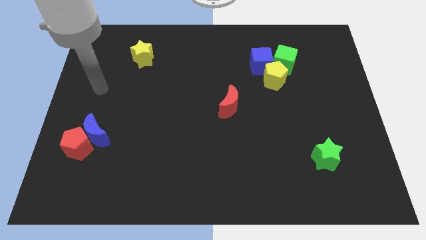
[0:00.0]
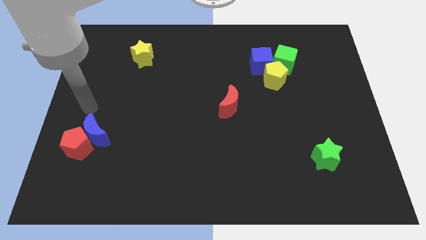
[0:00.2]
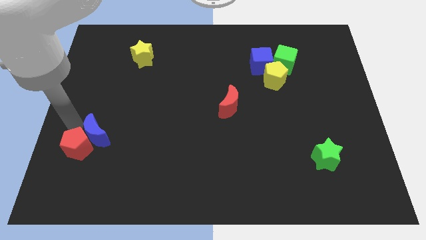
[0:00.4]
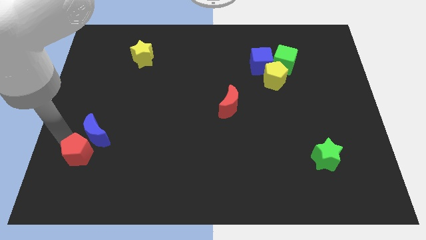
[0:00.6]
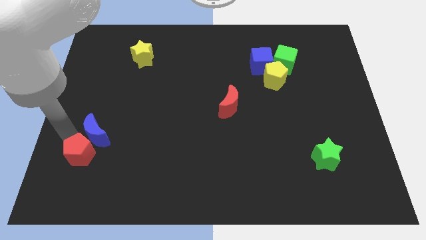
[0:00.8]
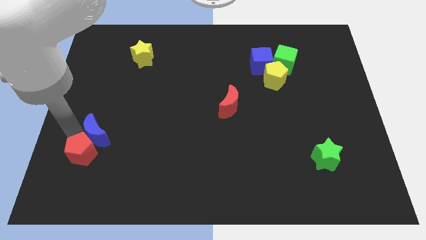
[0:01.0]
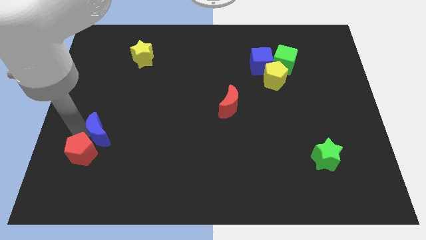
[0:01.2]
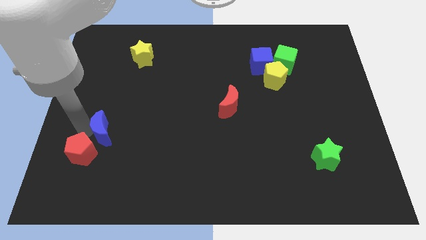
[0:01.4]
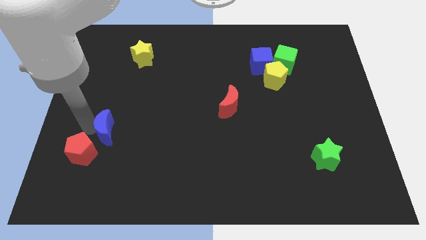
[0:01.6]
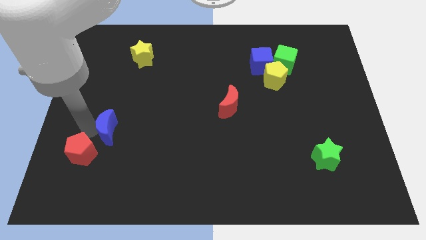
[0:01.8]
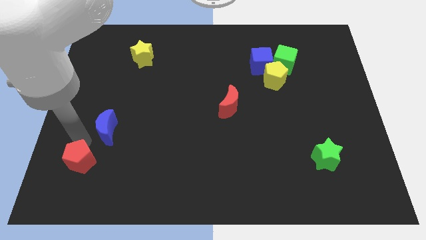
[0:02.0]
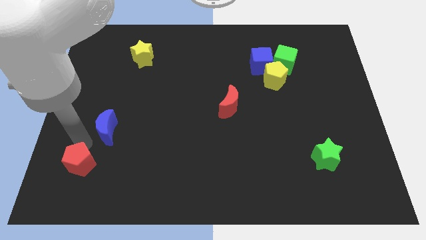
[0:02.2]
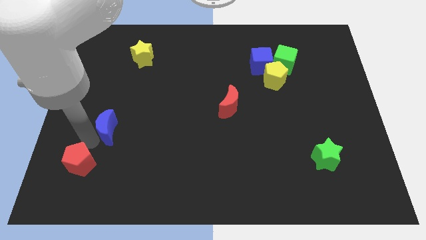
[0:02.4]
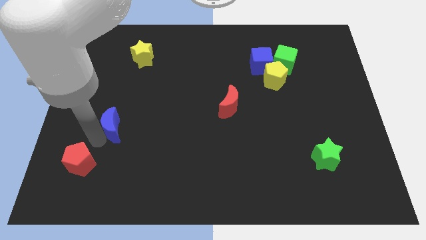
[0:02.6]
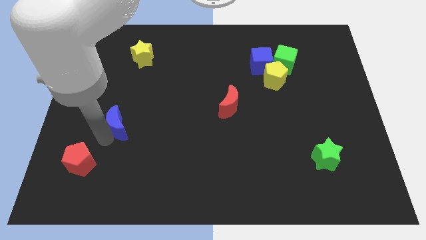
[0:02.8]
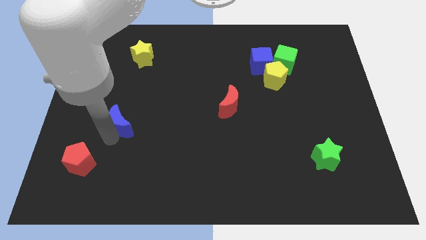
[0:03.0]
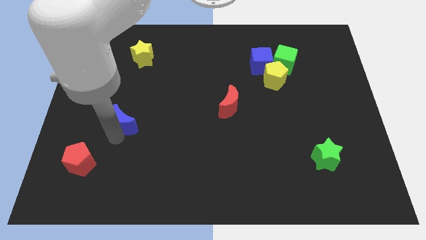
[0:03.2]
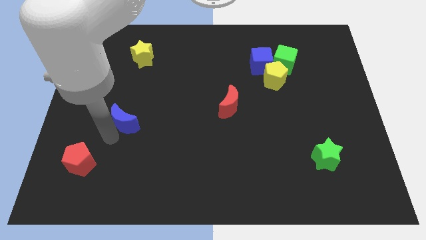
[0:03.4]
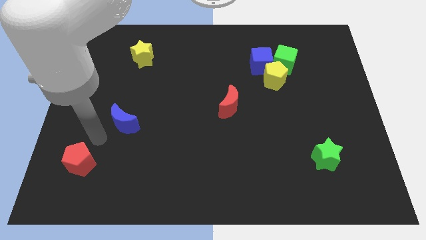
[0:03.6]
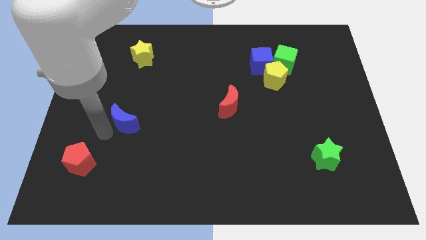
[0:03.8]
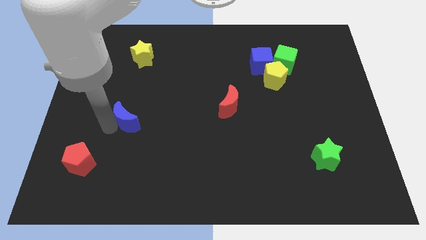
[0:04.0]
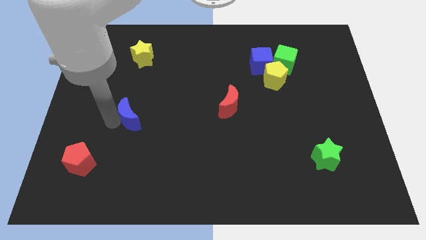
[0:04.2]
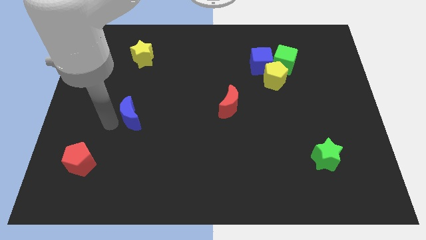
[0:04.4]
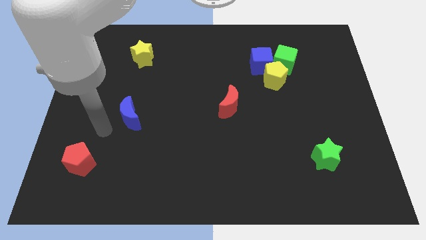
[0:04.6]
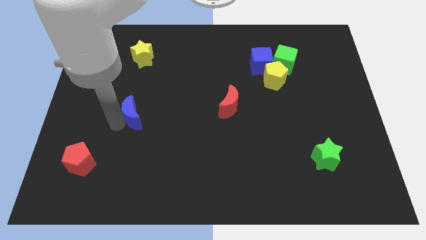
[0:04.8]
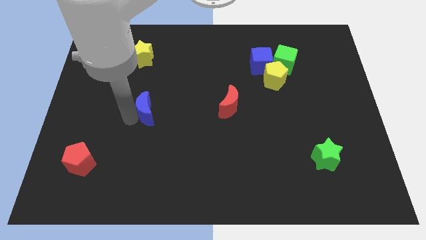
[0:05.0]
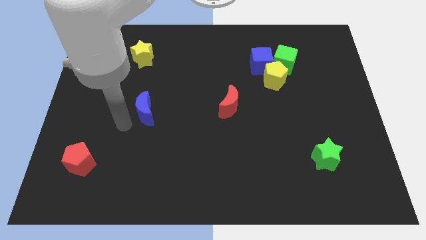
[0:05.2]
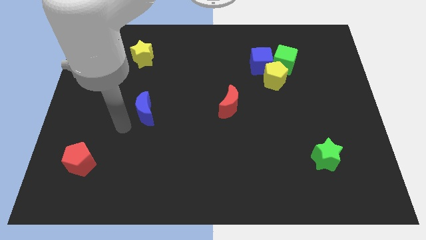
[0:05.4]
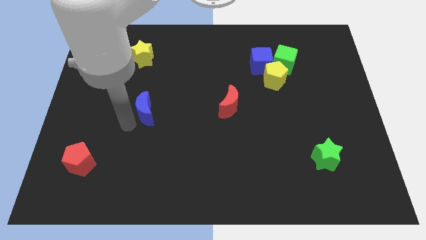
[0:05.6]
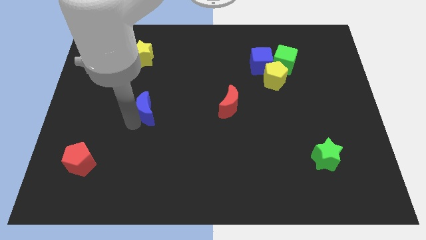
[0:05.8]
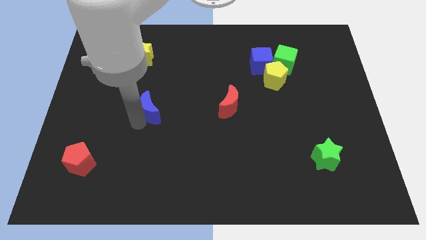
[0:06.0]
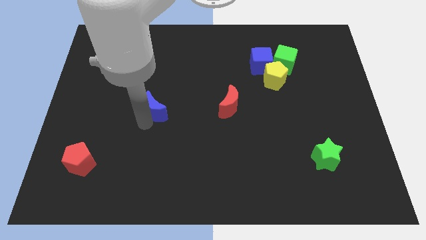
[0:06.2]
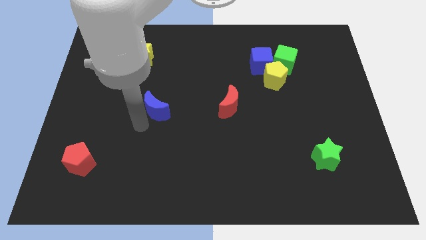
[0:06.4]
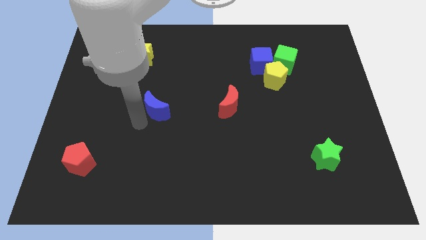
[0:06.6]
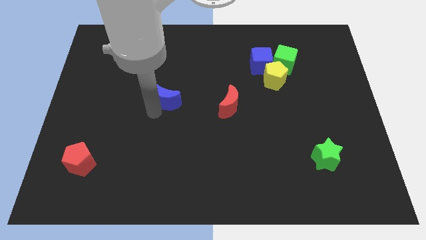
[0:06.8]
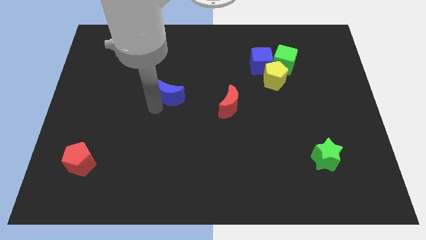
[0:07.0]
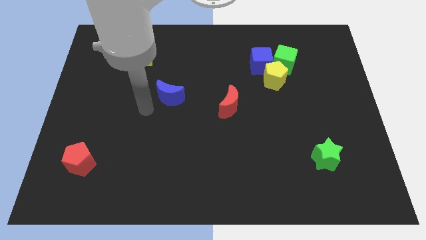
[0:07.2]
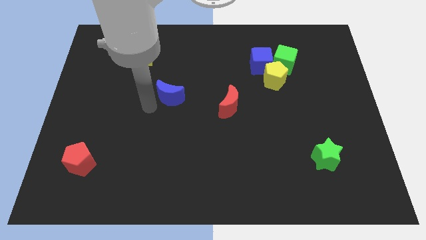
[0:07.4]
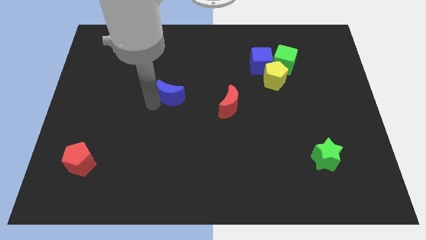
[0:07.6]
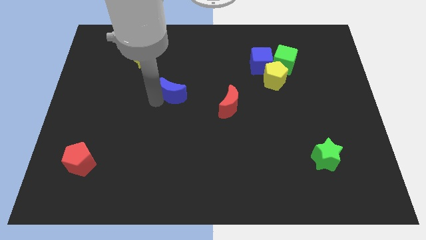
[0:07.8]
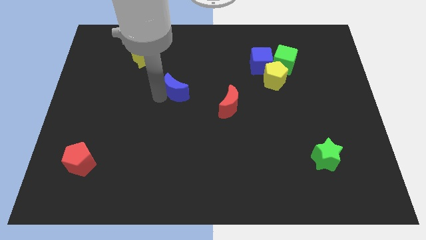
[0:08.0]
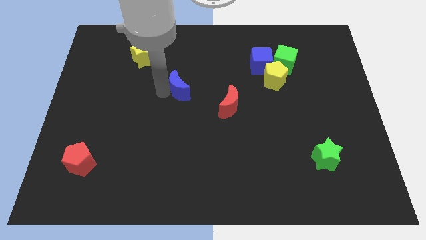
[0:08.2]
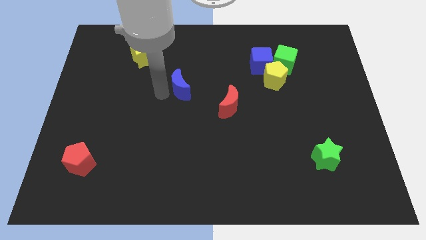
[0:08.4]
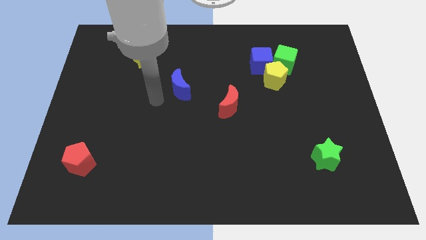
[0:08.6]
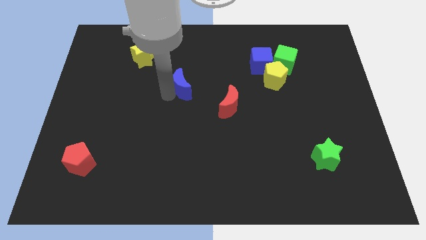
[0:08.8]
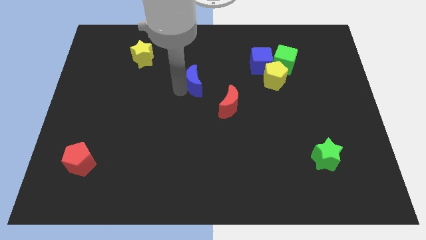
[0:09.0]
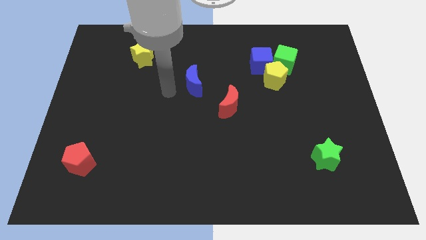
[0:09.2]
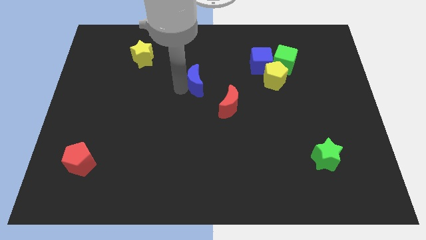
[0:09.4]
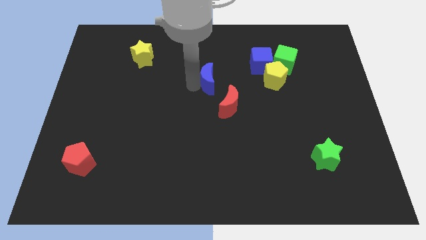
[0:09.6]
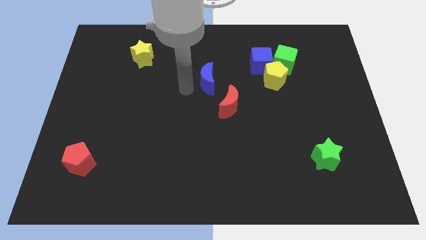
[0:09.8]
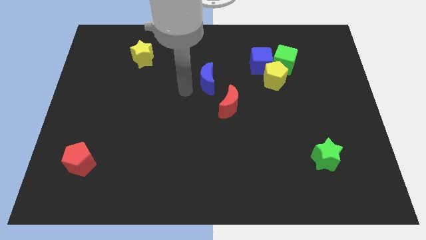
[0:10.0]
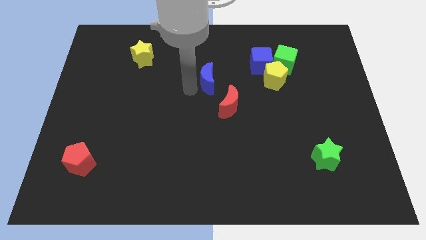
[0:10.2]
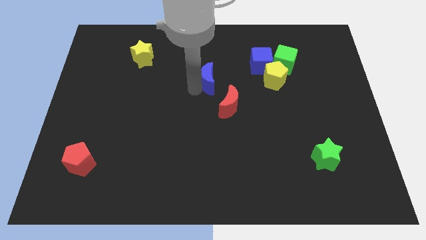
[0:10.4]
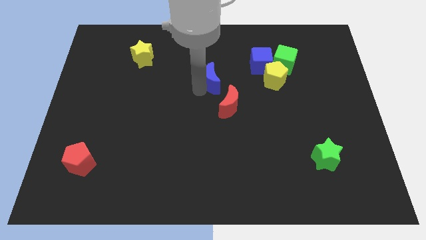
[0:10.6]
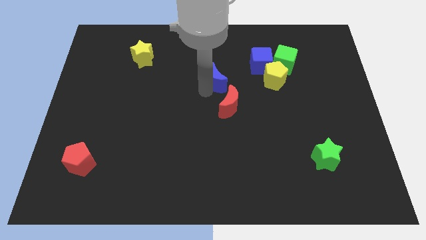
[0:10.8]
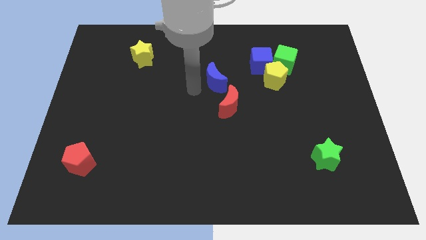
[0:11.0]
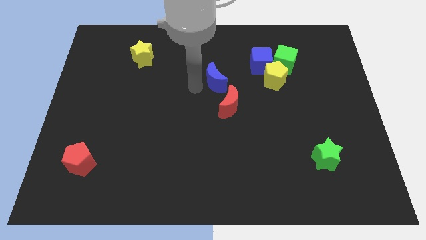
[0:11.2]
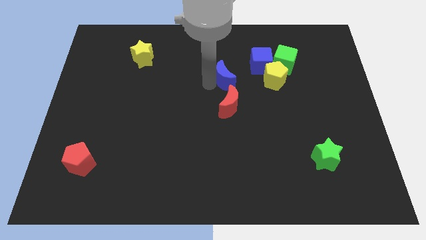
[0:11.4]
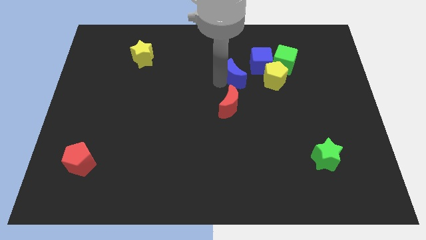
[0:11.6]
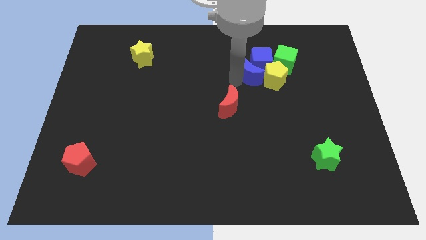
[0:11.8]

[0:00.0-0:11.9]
slide the blue moon towards the blue cube
